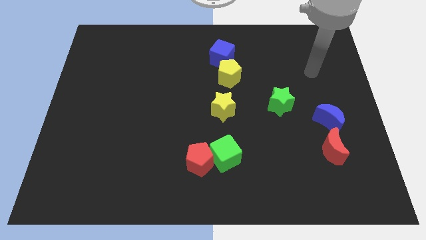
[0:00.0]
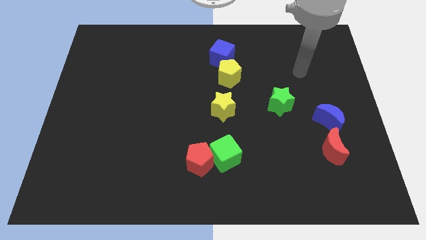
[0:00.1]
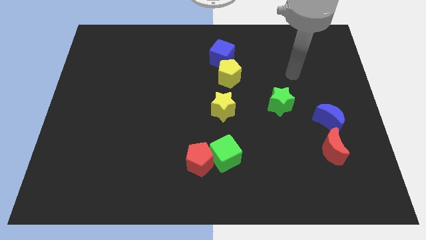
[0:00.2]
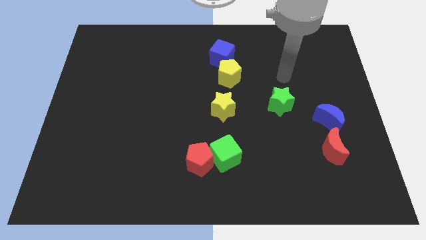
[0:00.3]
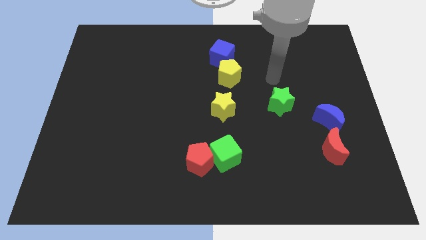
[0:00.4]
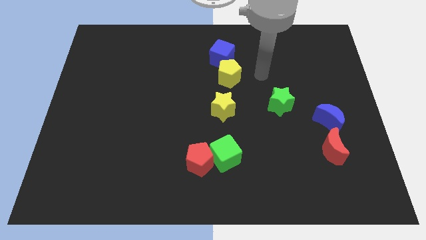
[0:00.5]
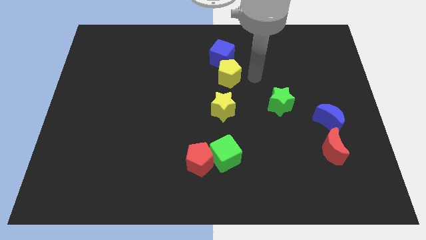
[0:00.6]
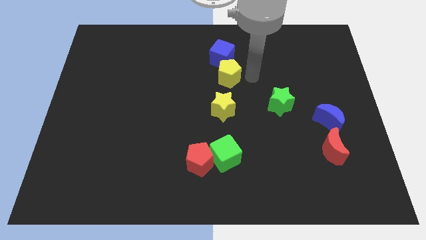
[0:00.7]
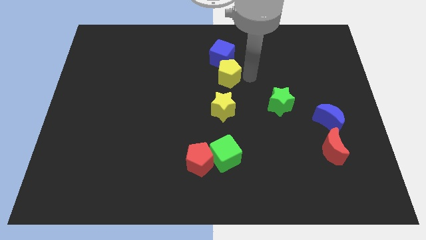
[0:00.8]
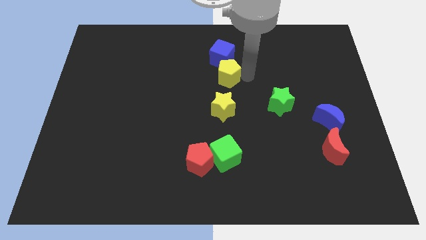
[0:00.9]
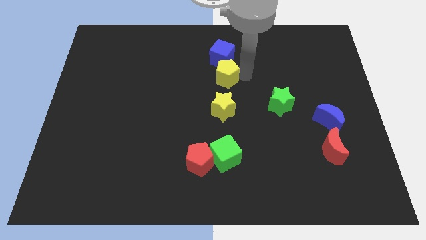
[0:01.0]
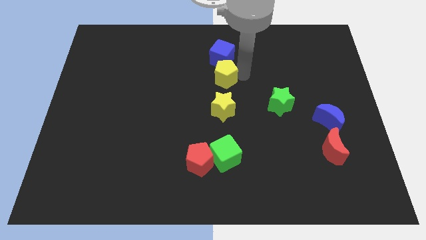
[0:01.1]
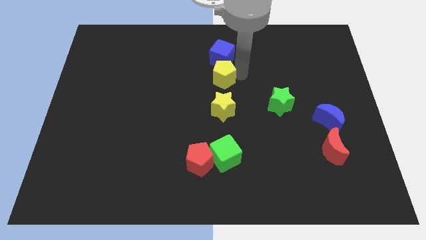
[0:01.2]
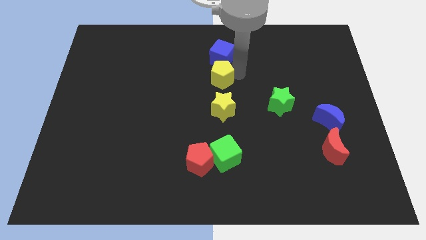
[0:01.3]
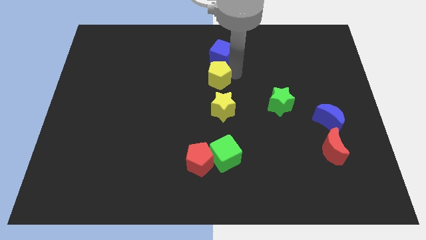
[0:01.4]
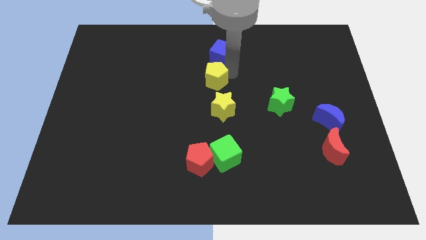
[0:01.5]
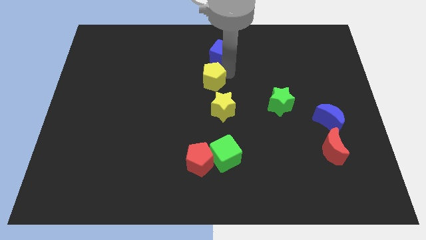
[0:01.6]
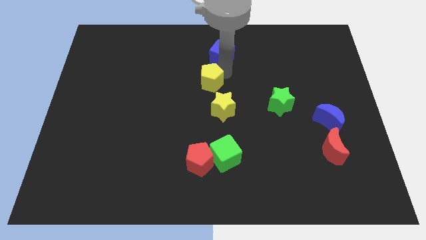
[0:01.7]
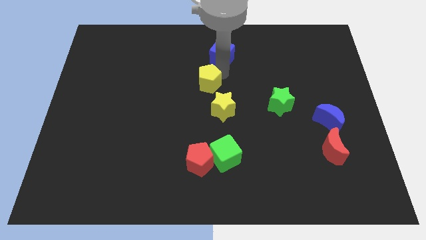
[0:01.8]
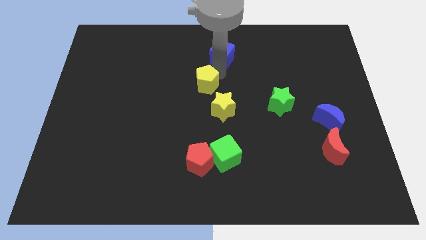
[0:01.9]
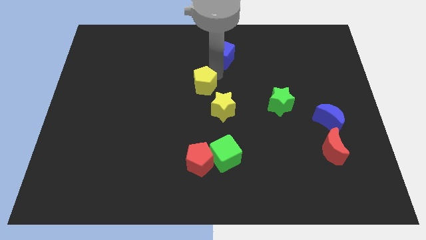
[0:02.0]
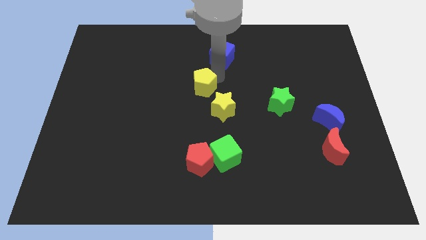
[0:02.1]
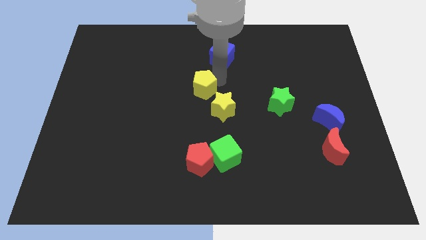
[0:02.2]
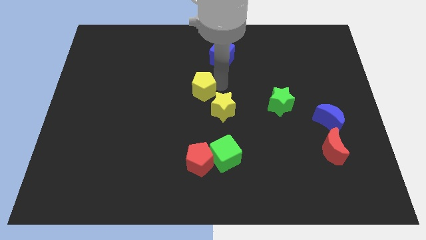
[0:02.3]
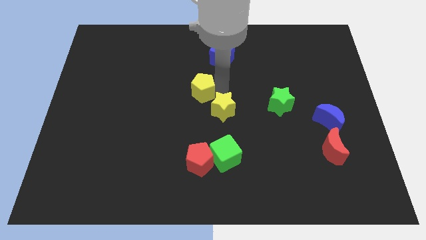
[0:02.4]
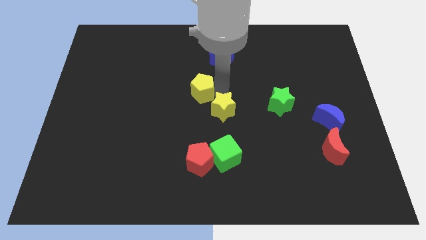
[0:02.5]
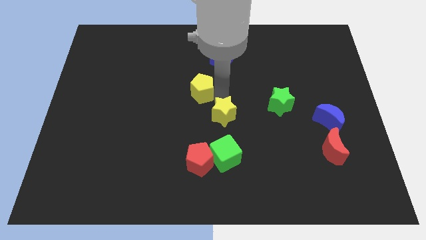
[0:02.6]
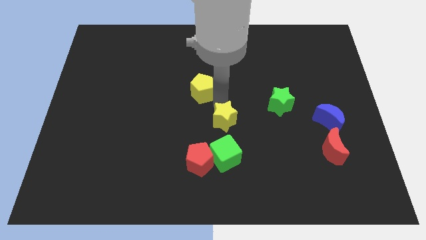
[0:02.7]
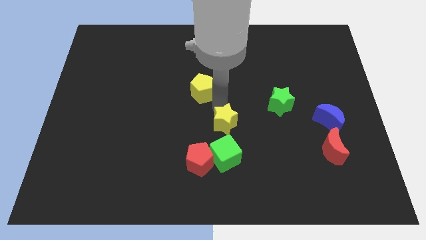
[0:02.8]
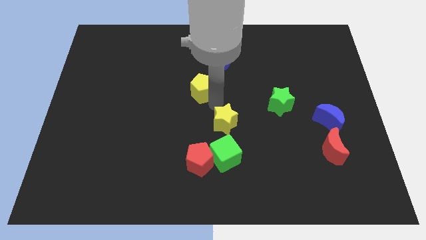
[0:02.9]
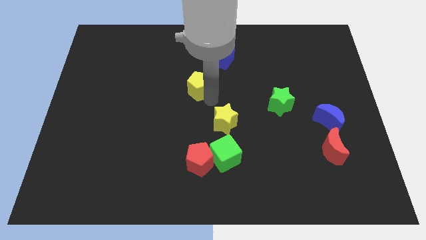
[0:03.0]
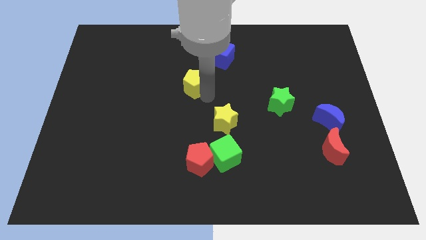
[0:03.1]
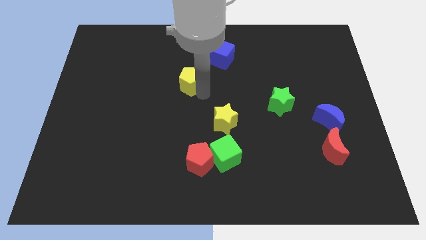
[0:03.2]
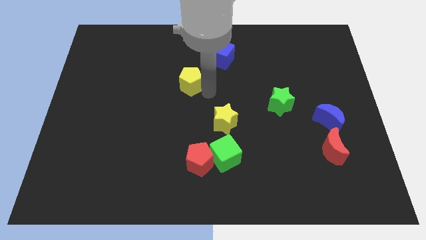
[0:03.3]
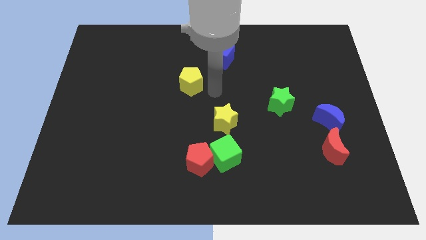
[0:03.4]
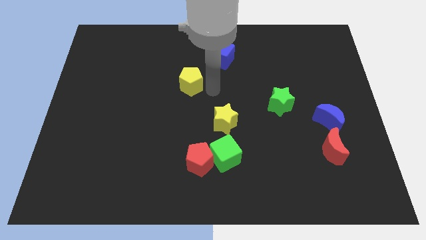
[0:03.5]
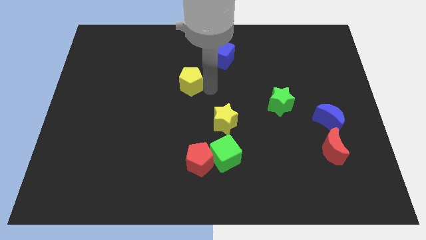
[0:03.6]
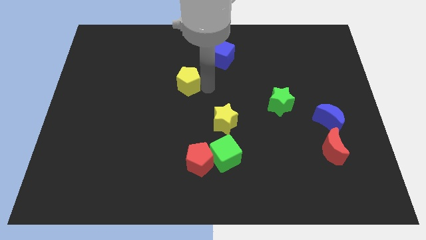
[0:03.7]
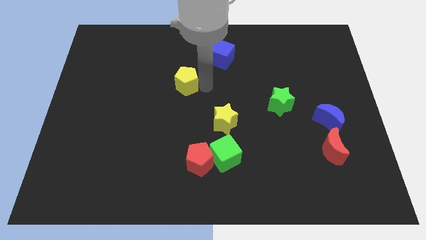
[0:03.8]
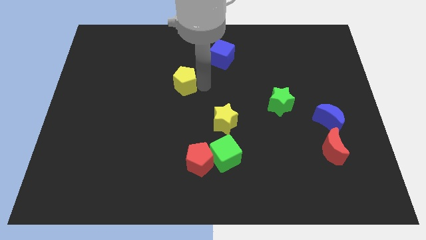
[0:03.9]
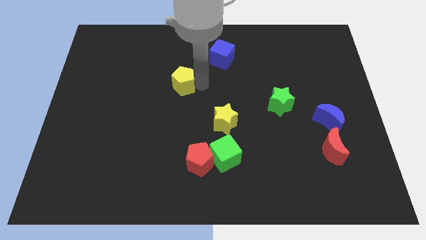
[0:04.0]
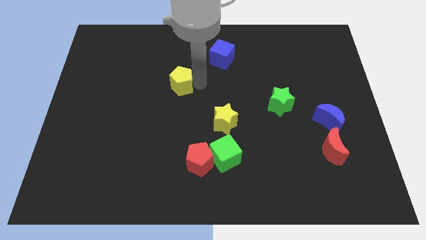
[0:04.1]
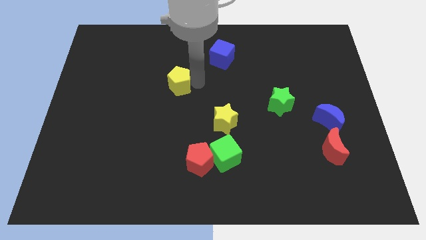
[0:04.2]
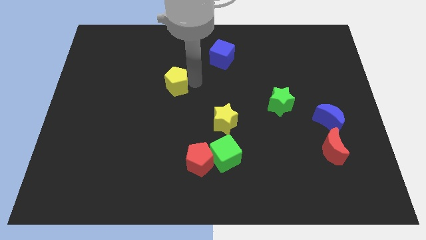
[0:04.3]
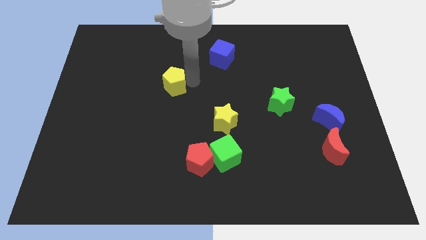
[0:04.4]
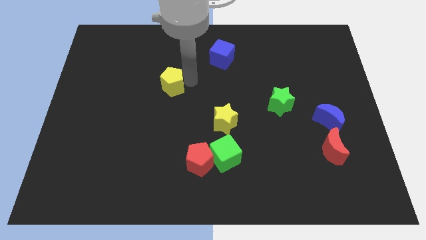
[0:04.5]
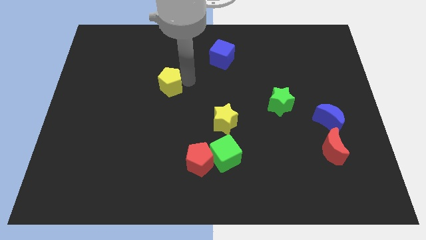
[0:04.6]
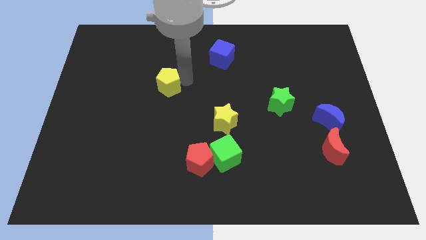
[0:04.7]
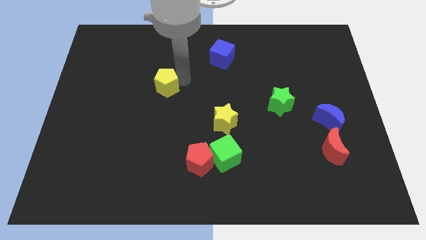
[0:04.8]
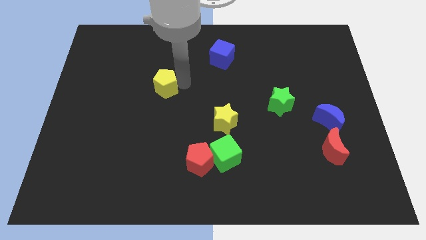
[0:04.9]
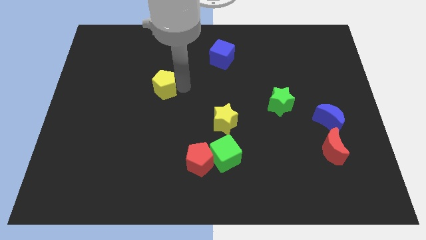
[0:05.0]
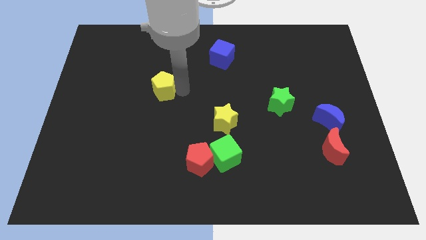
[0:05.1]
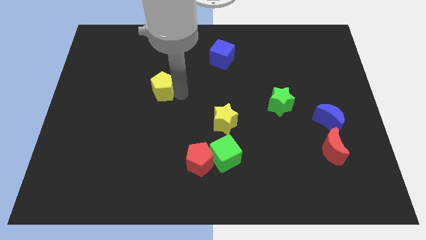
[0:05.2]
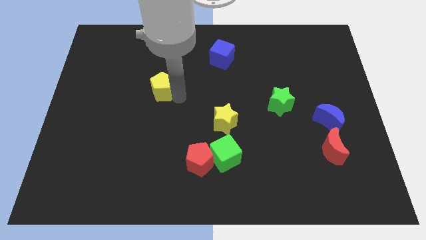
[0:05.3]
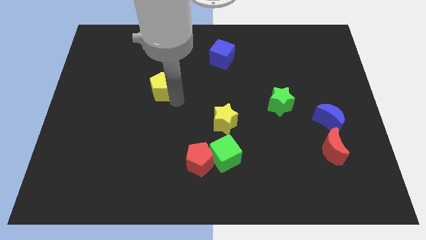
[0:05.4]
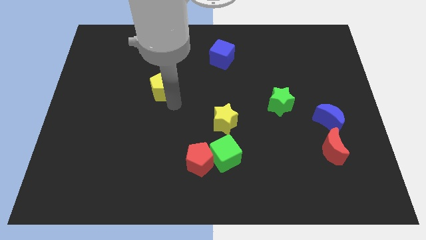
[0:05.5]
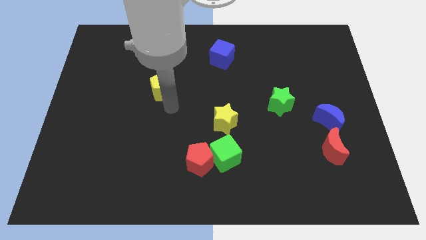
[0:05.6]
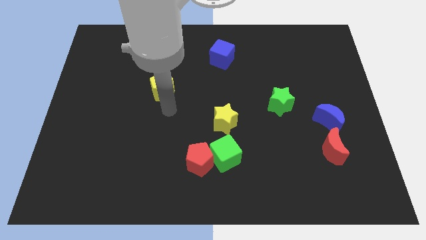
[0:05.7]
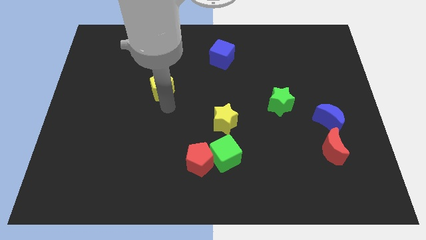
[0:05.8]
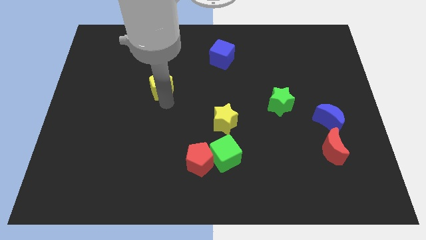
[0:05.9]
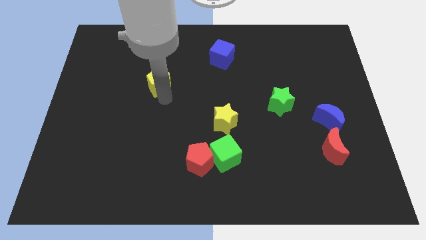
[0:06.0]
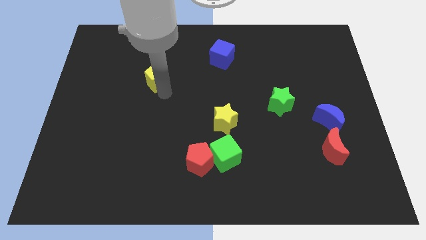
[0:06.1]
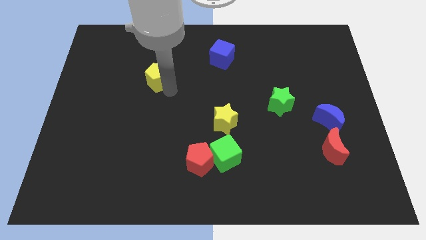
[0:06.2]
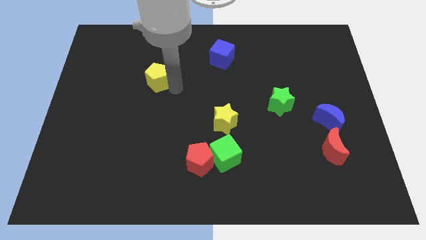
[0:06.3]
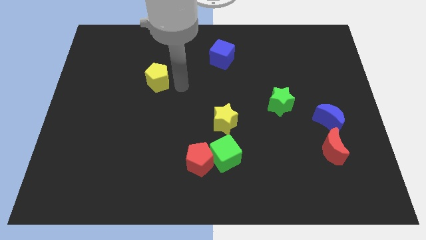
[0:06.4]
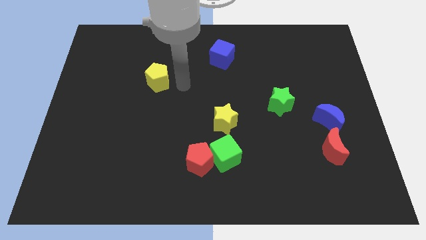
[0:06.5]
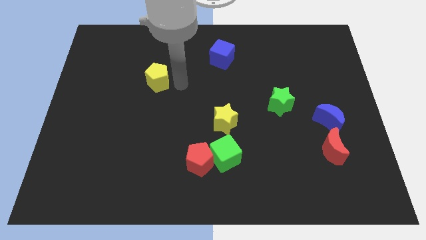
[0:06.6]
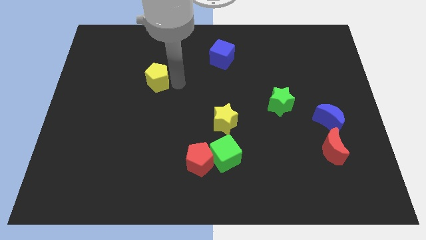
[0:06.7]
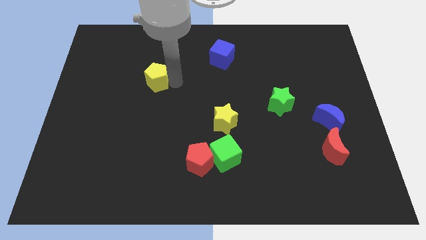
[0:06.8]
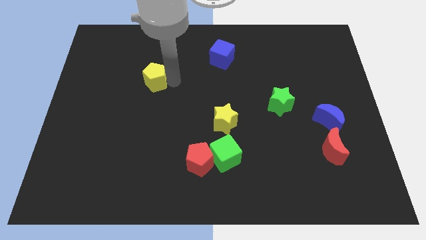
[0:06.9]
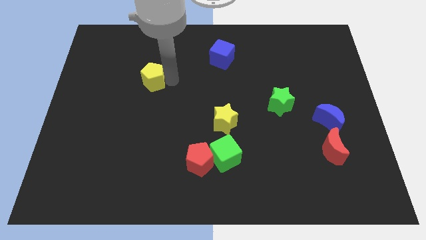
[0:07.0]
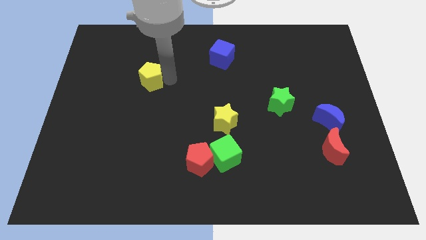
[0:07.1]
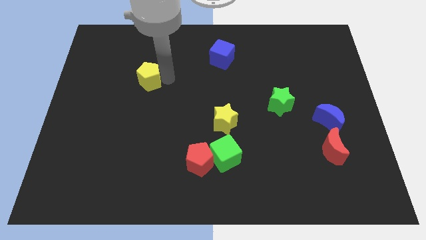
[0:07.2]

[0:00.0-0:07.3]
slide the yellow pentagon to the left

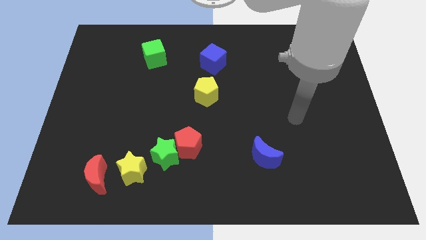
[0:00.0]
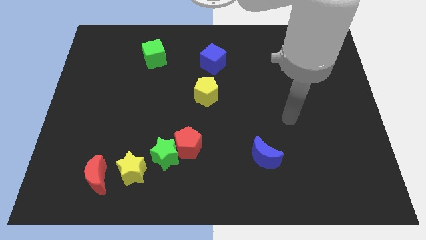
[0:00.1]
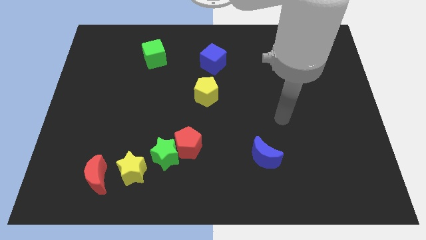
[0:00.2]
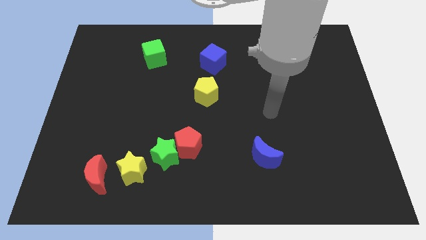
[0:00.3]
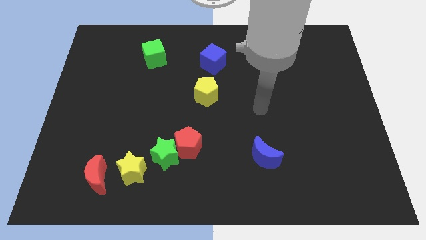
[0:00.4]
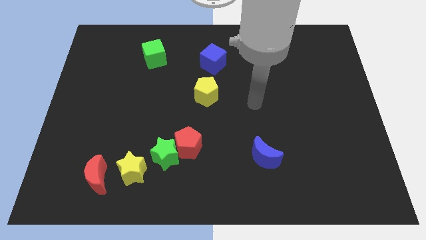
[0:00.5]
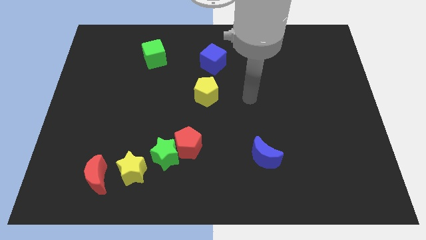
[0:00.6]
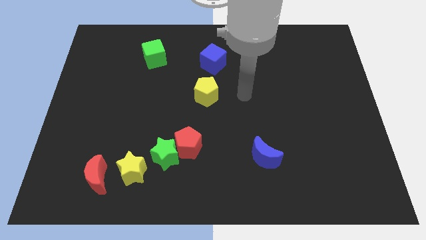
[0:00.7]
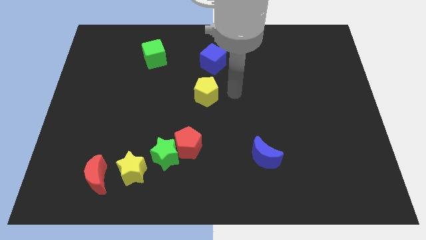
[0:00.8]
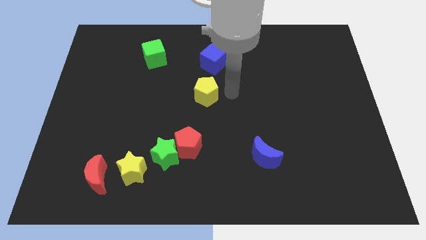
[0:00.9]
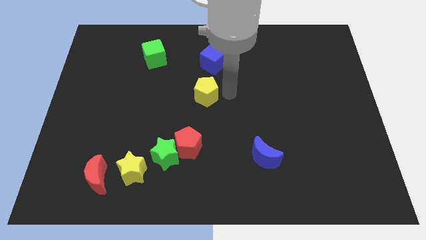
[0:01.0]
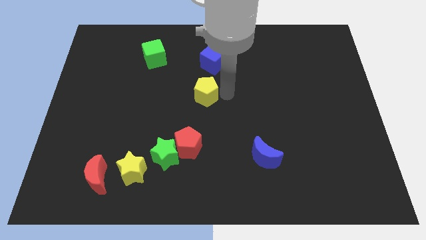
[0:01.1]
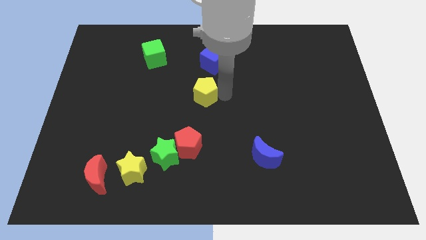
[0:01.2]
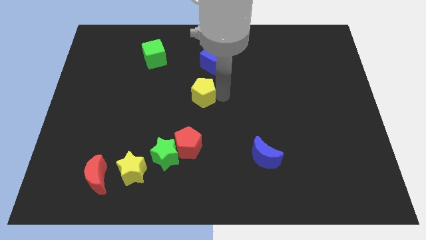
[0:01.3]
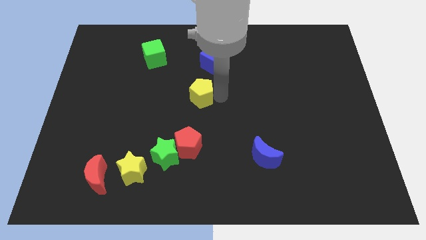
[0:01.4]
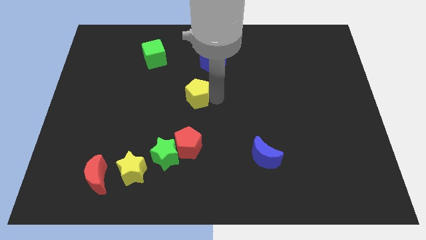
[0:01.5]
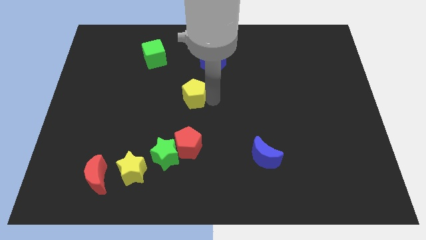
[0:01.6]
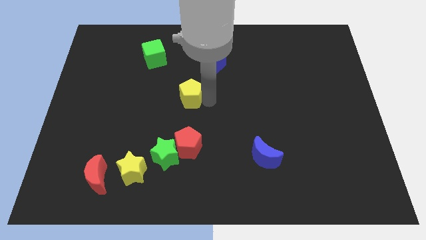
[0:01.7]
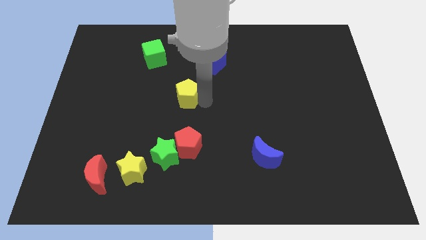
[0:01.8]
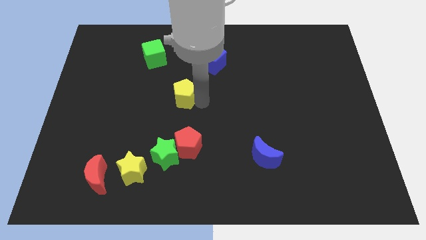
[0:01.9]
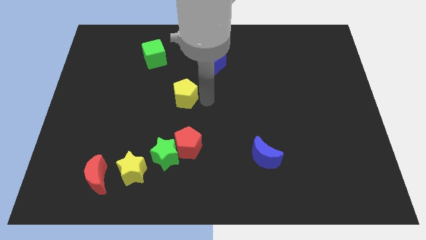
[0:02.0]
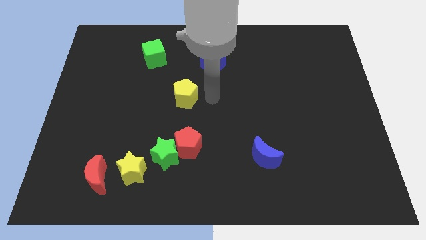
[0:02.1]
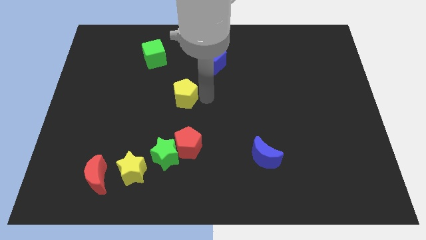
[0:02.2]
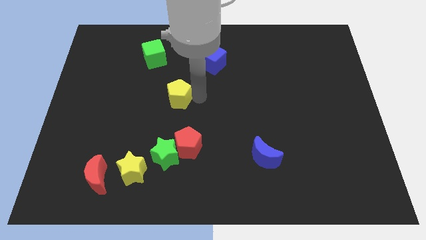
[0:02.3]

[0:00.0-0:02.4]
move the yellow pentagon left a bit
